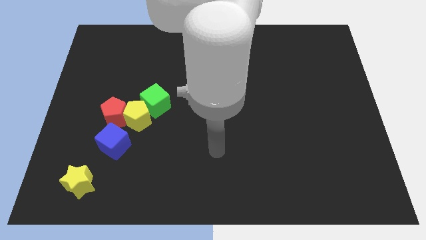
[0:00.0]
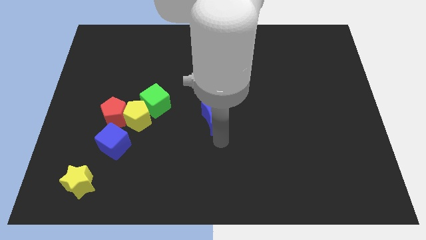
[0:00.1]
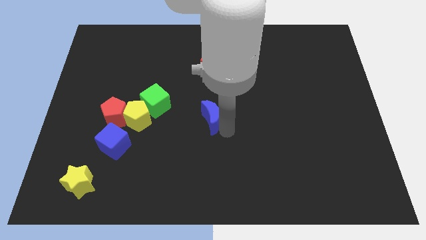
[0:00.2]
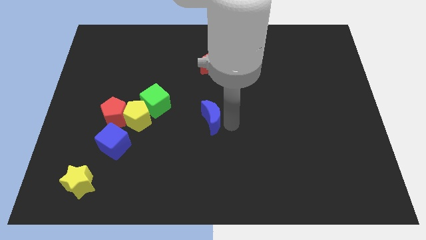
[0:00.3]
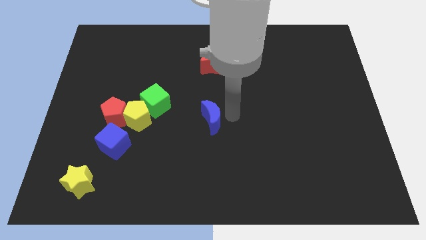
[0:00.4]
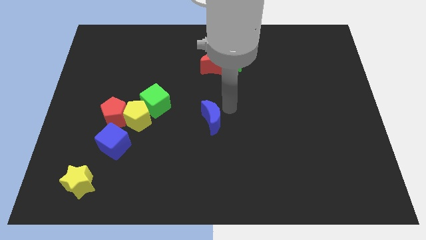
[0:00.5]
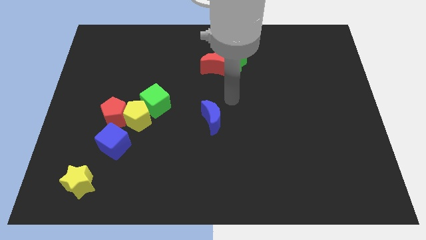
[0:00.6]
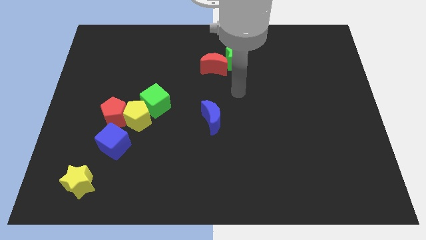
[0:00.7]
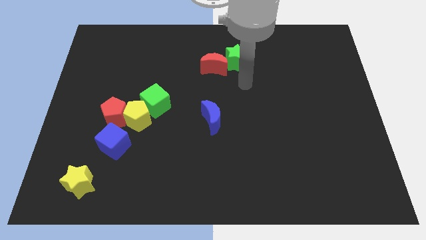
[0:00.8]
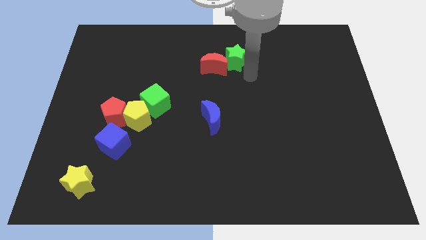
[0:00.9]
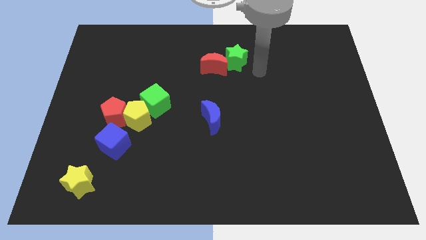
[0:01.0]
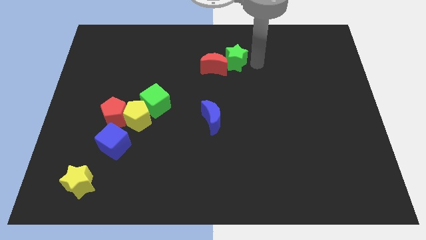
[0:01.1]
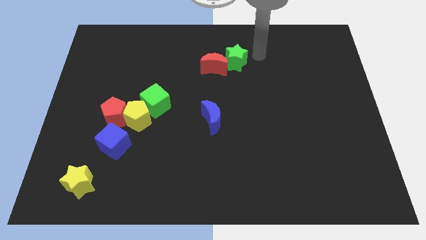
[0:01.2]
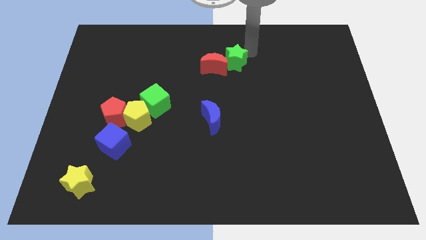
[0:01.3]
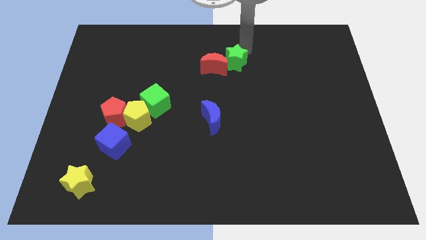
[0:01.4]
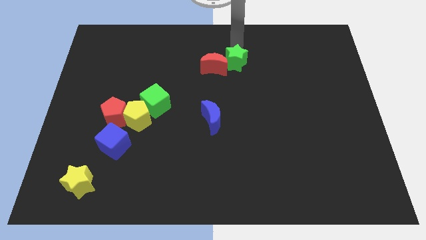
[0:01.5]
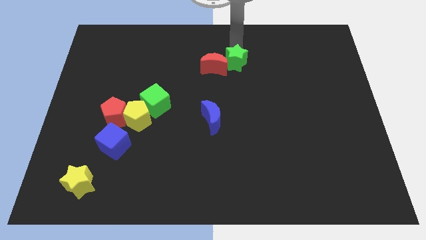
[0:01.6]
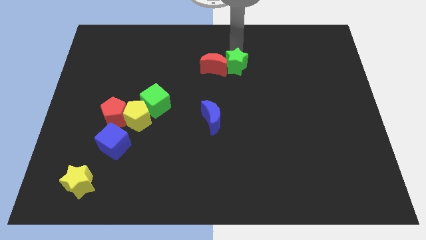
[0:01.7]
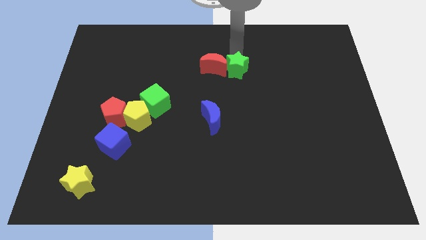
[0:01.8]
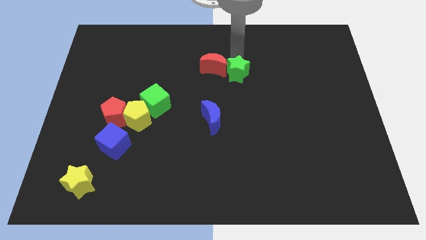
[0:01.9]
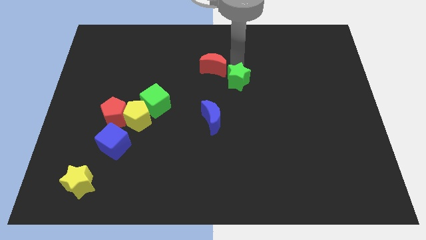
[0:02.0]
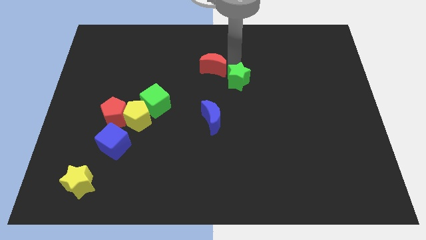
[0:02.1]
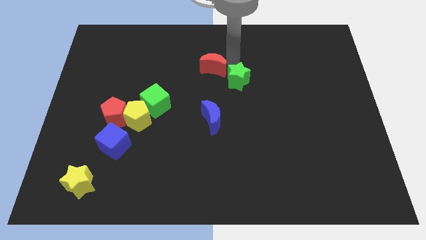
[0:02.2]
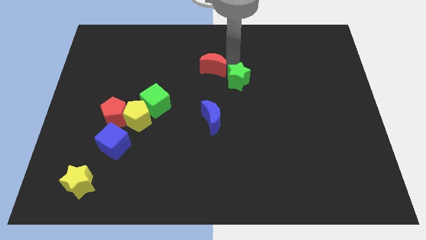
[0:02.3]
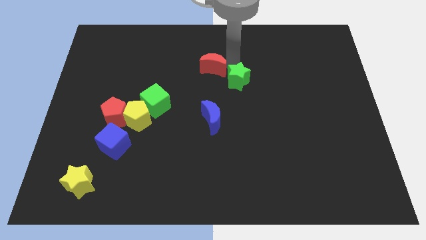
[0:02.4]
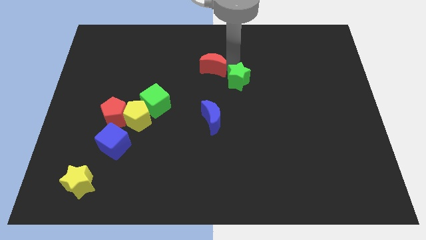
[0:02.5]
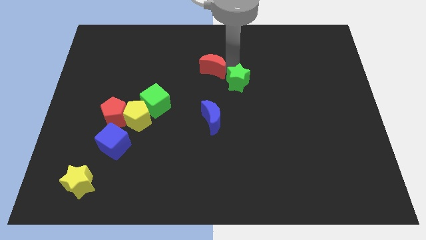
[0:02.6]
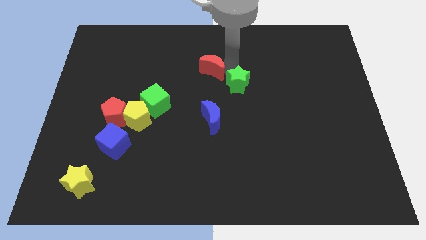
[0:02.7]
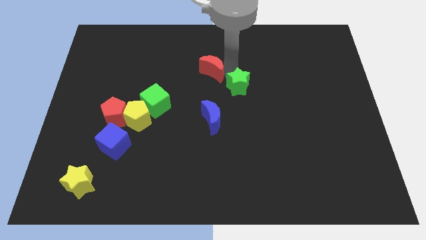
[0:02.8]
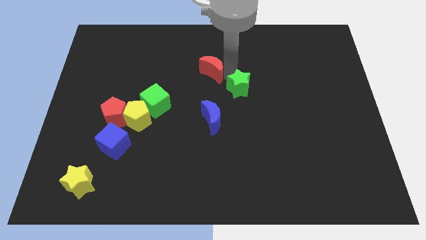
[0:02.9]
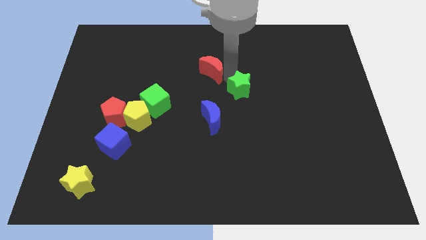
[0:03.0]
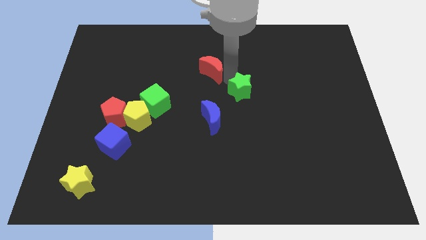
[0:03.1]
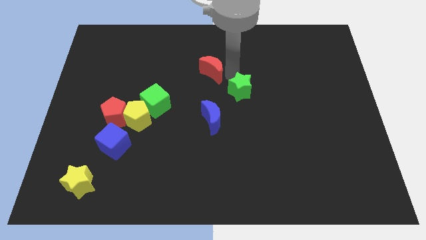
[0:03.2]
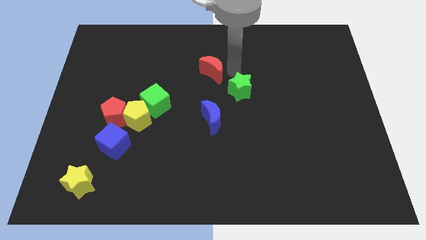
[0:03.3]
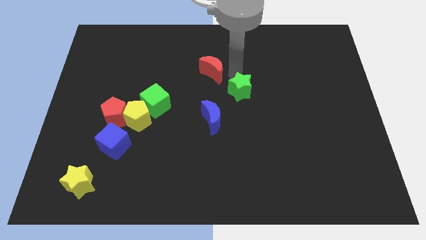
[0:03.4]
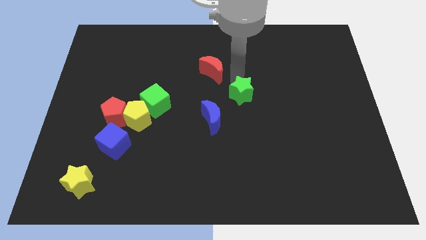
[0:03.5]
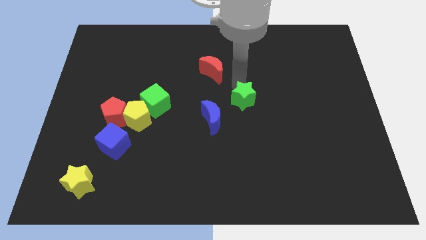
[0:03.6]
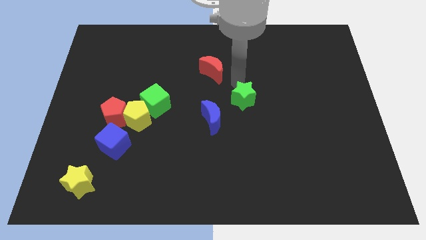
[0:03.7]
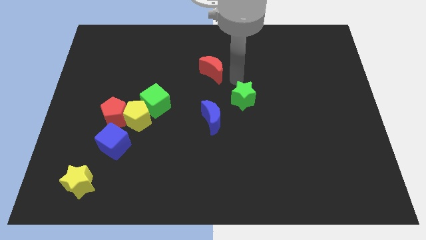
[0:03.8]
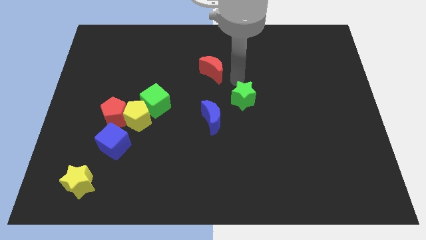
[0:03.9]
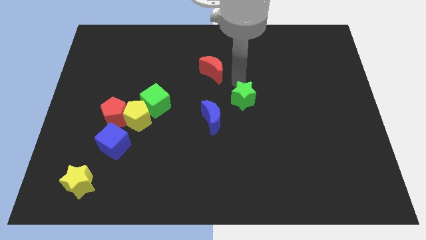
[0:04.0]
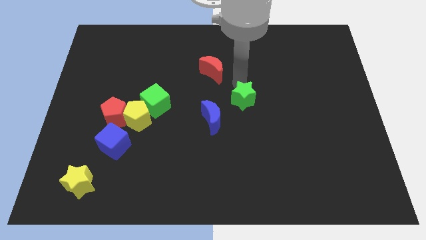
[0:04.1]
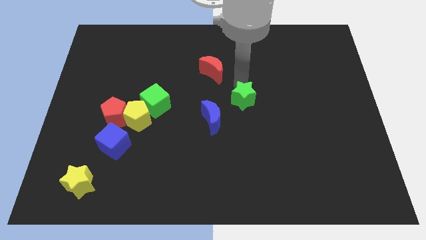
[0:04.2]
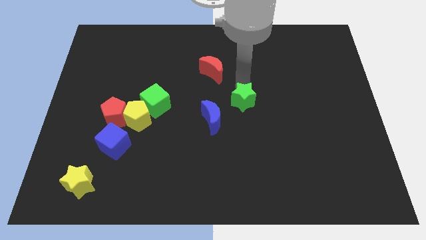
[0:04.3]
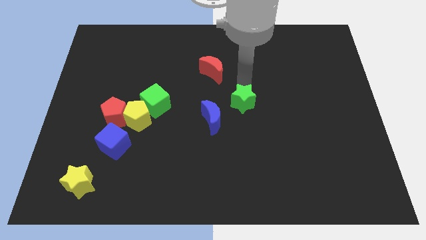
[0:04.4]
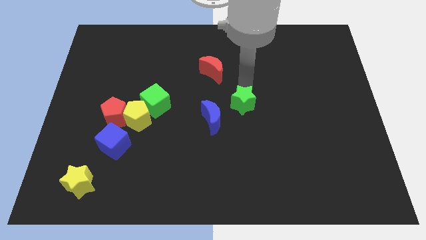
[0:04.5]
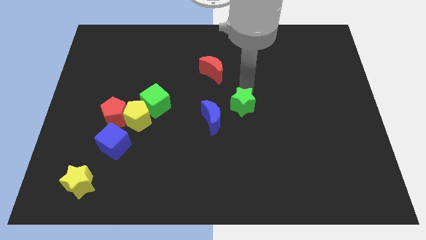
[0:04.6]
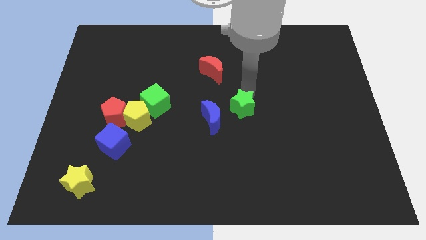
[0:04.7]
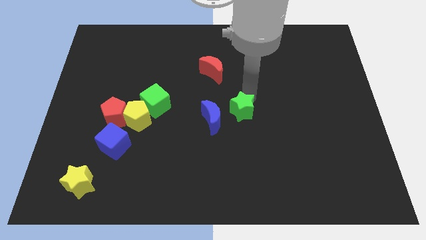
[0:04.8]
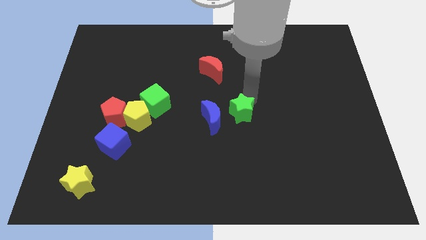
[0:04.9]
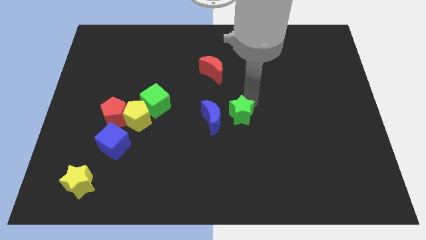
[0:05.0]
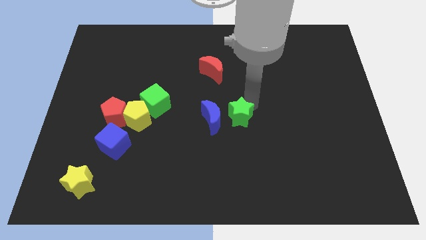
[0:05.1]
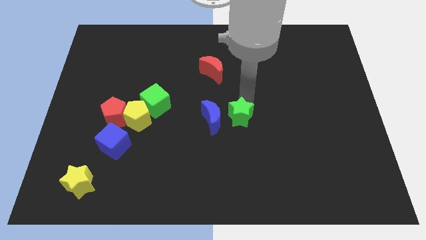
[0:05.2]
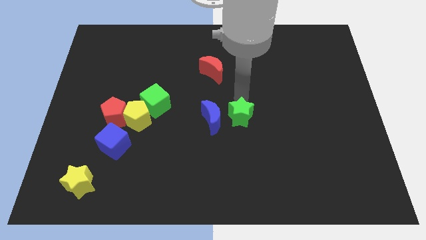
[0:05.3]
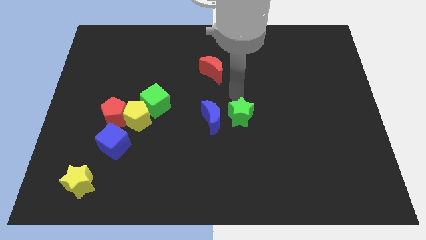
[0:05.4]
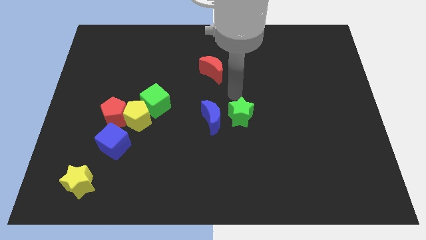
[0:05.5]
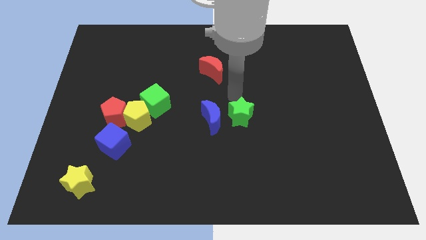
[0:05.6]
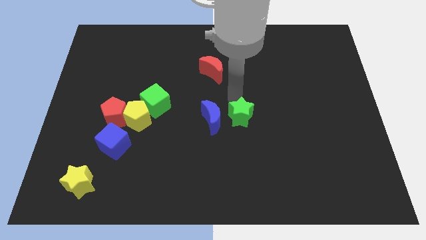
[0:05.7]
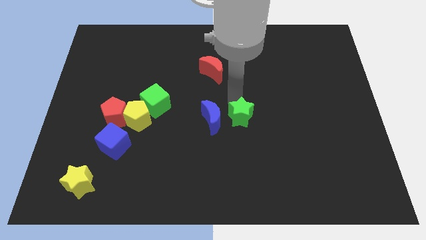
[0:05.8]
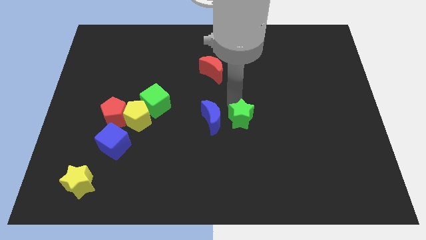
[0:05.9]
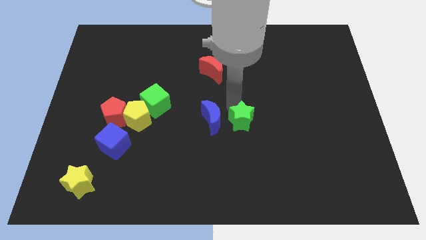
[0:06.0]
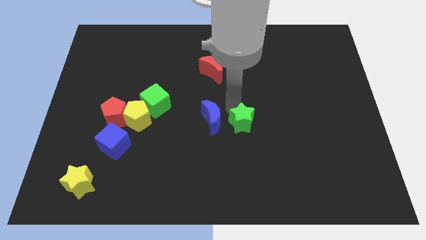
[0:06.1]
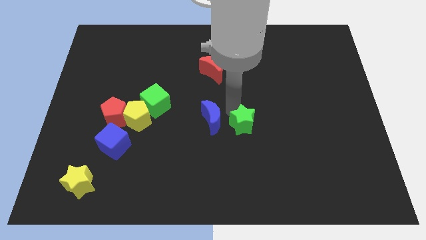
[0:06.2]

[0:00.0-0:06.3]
move the green star downwards

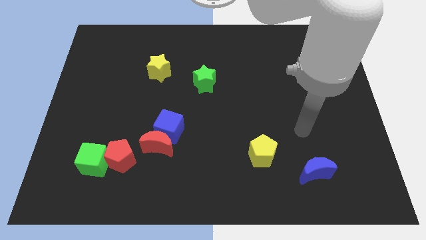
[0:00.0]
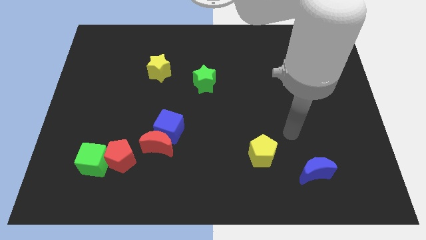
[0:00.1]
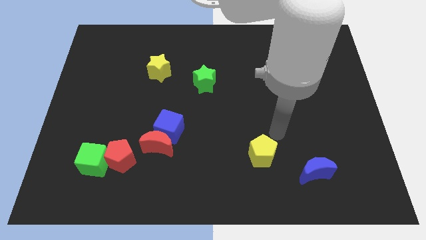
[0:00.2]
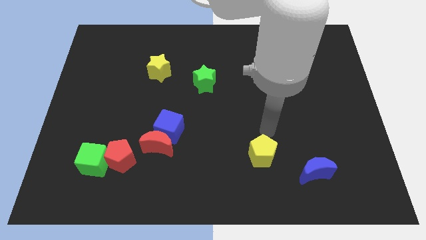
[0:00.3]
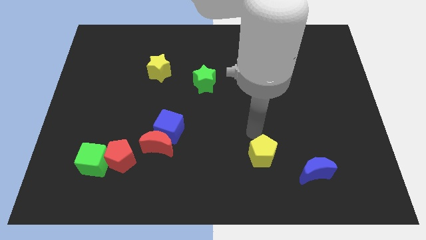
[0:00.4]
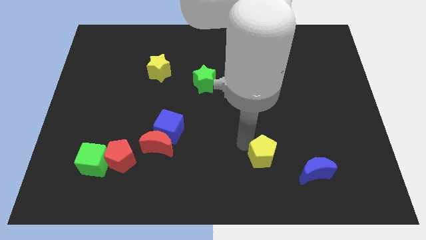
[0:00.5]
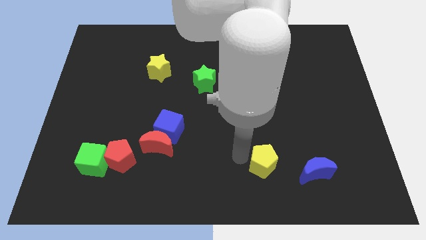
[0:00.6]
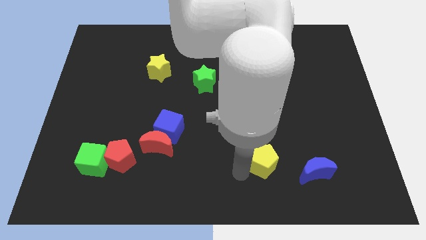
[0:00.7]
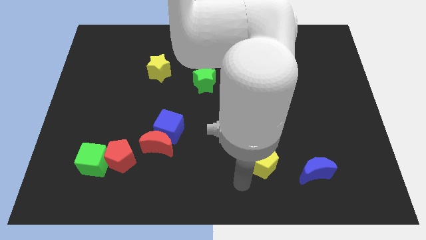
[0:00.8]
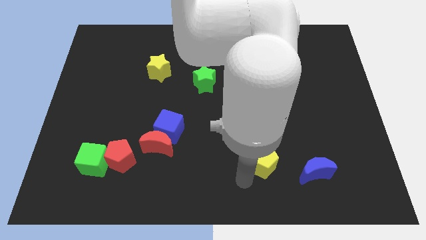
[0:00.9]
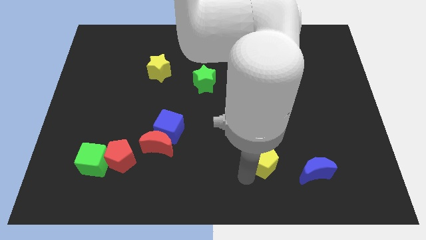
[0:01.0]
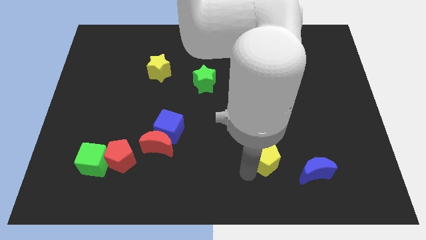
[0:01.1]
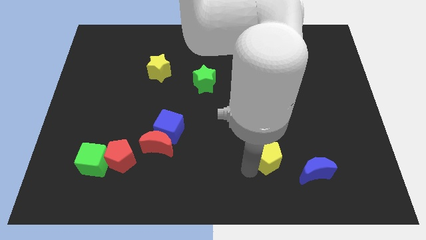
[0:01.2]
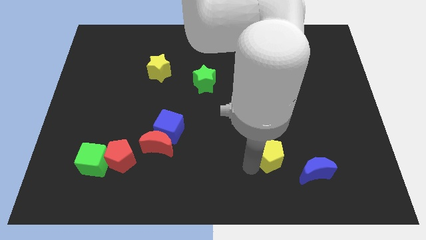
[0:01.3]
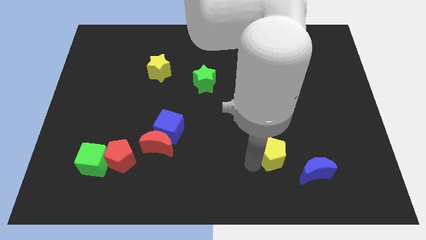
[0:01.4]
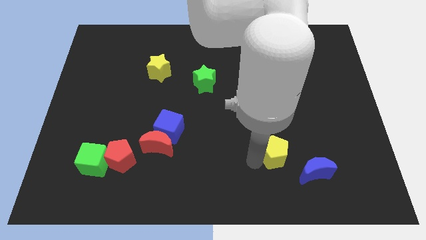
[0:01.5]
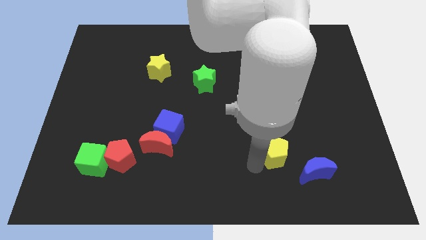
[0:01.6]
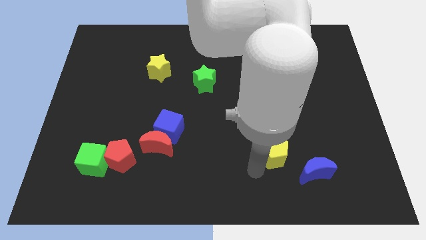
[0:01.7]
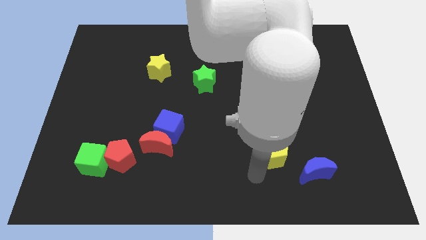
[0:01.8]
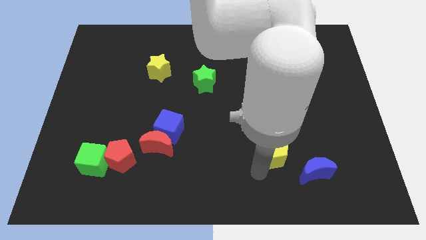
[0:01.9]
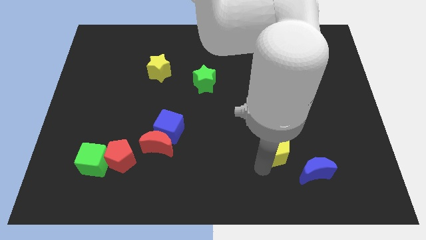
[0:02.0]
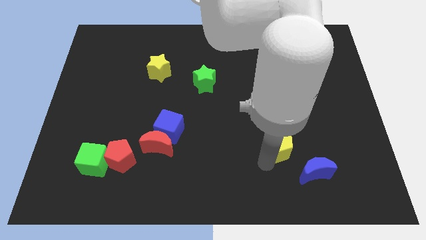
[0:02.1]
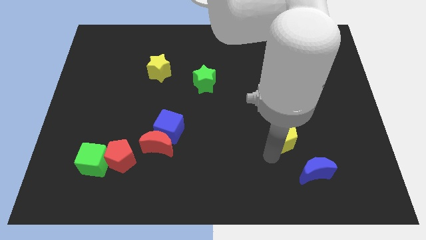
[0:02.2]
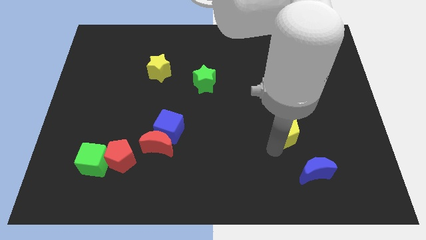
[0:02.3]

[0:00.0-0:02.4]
slightly move the yellow pentagon upwards and to the right
